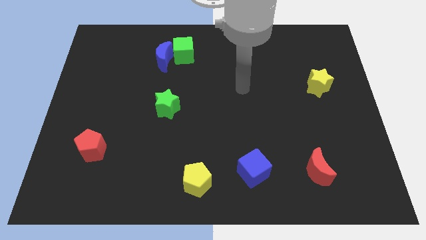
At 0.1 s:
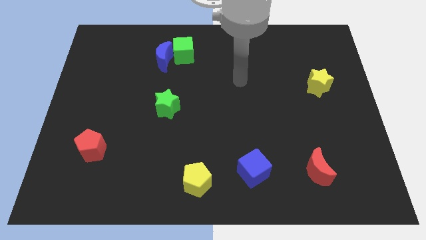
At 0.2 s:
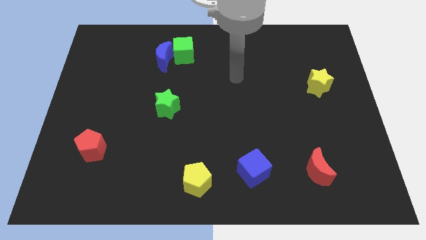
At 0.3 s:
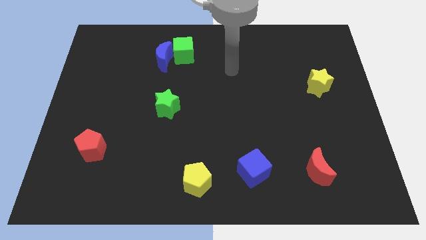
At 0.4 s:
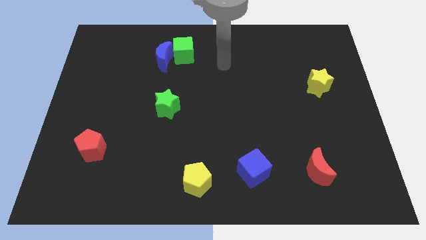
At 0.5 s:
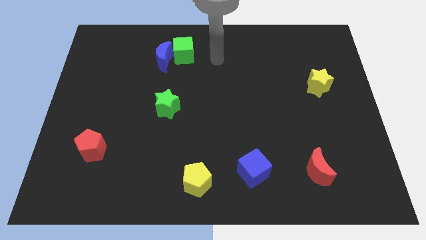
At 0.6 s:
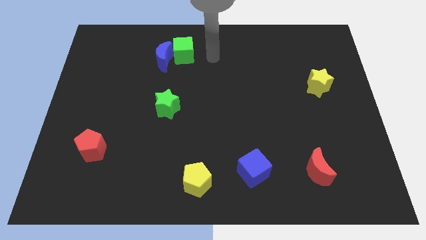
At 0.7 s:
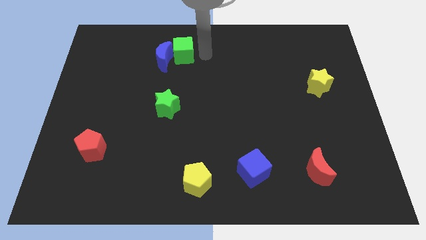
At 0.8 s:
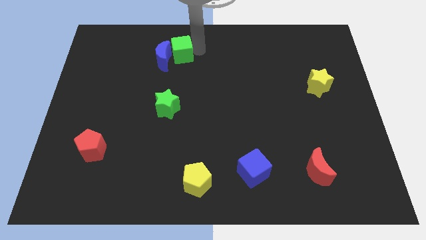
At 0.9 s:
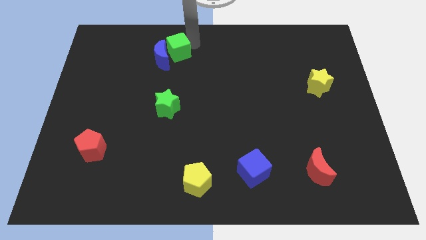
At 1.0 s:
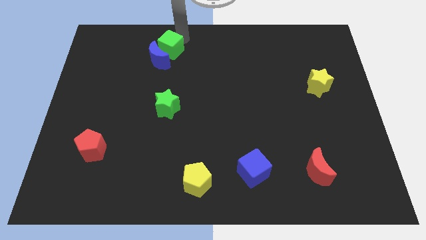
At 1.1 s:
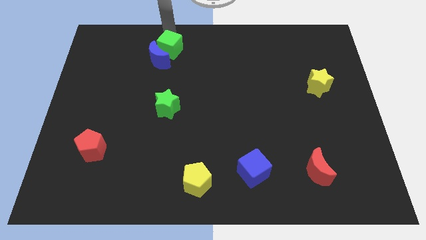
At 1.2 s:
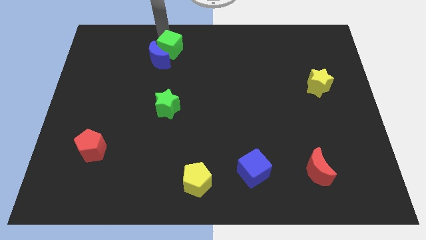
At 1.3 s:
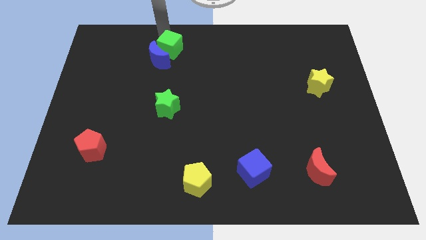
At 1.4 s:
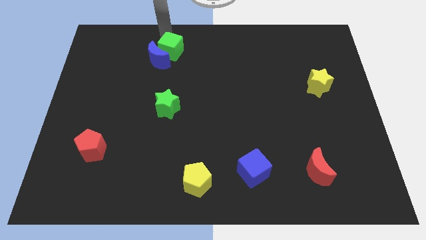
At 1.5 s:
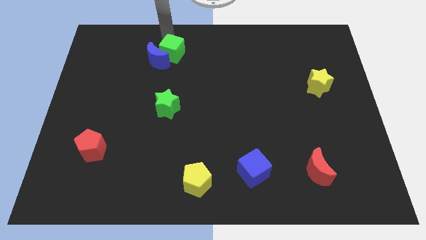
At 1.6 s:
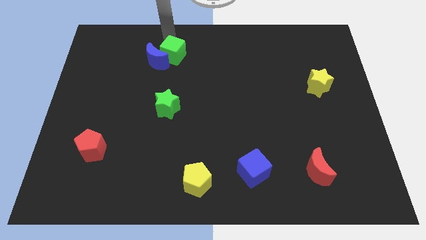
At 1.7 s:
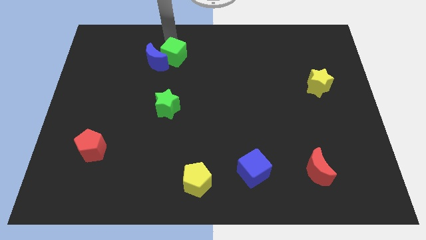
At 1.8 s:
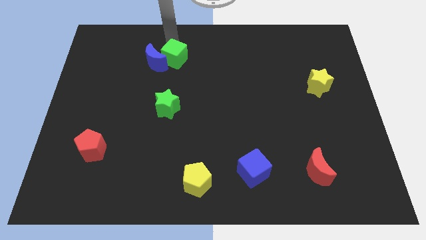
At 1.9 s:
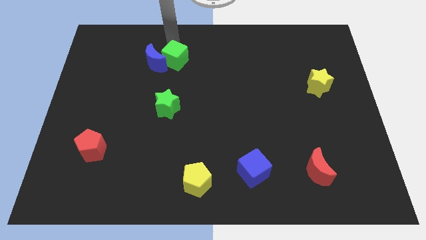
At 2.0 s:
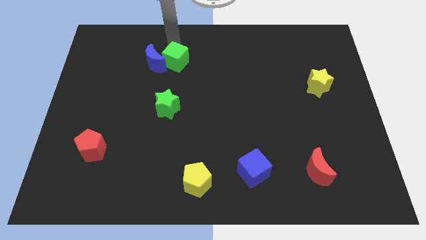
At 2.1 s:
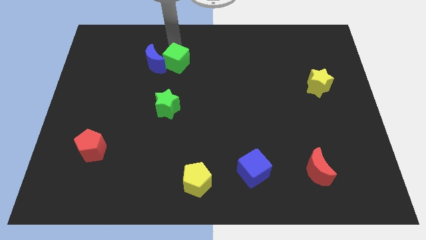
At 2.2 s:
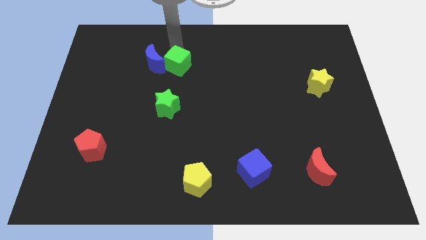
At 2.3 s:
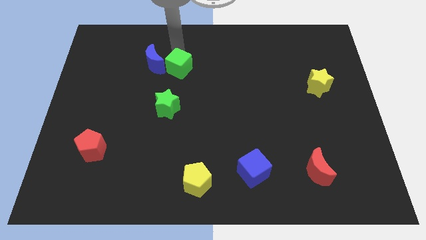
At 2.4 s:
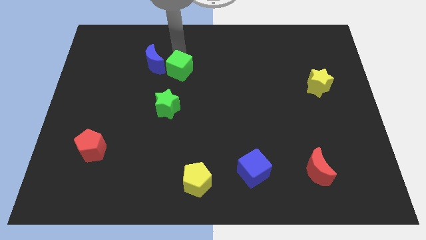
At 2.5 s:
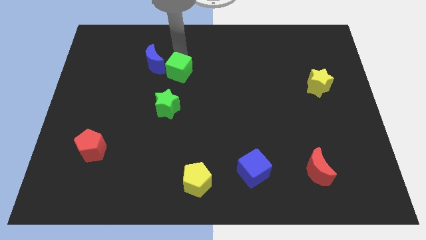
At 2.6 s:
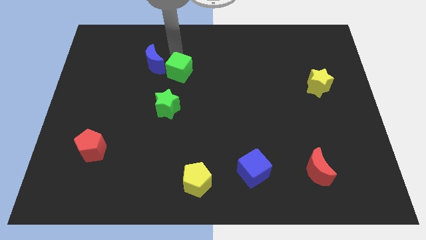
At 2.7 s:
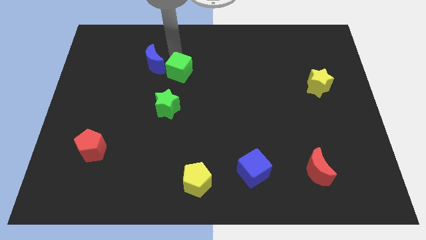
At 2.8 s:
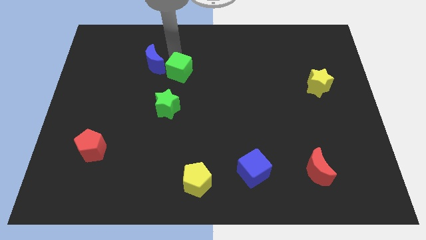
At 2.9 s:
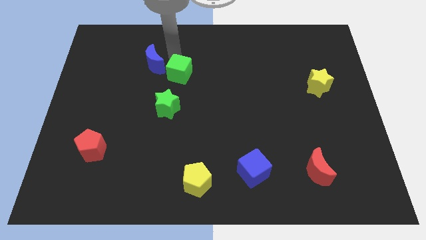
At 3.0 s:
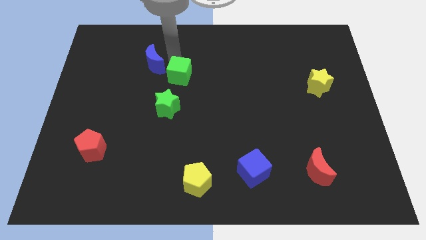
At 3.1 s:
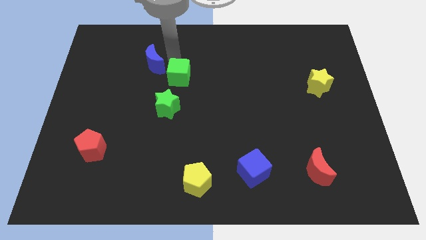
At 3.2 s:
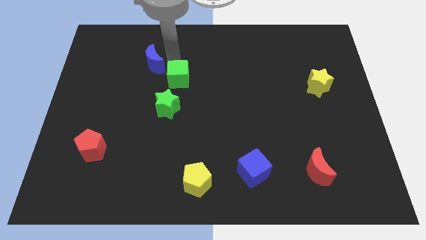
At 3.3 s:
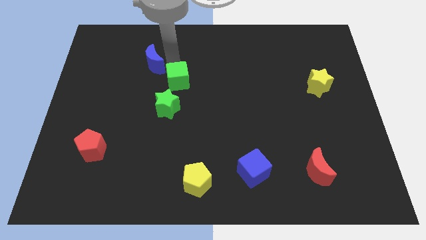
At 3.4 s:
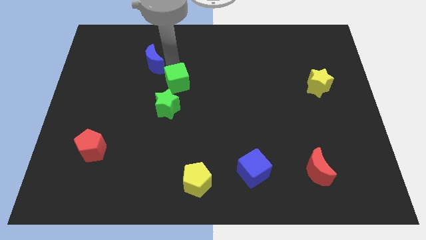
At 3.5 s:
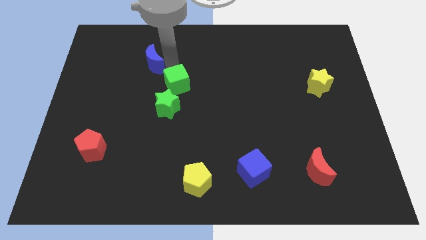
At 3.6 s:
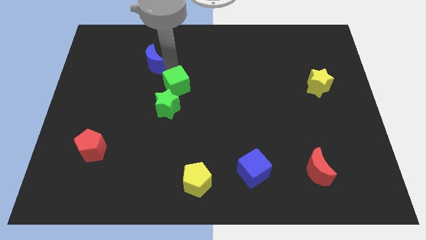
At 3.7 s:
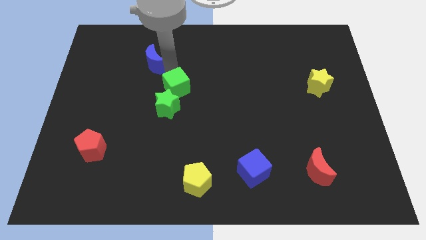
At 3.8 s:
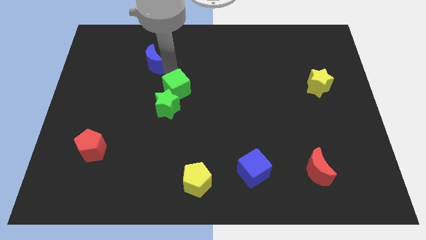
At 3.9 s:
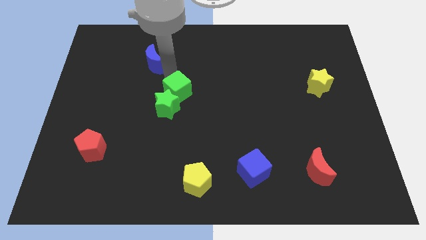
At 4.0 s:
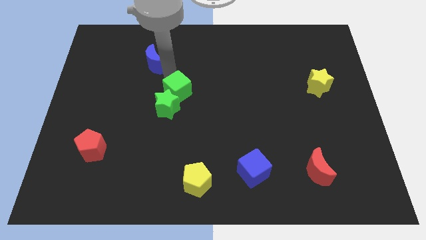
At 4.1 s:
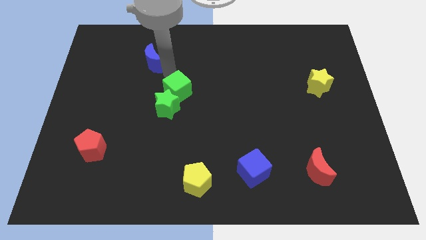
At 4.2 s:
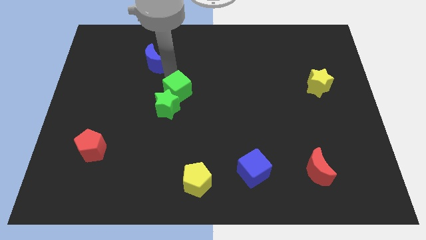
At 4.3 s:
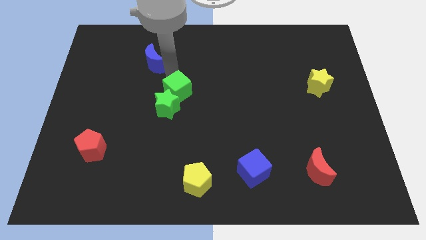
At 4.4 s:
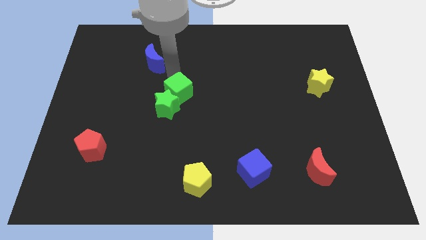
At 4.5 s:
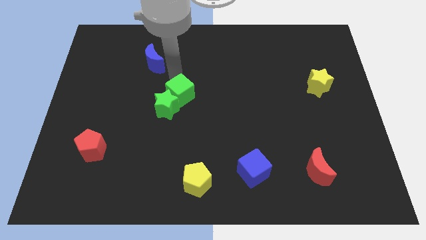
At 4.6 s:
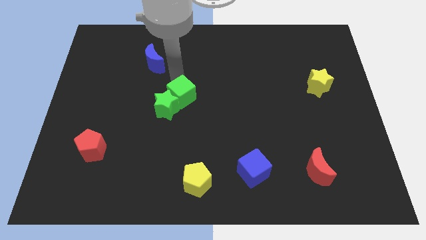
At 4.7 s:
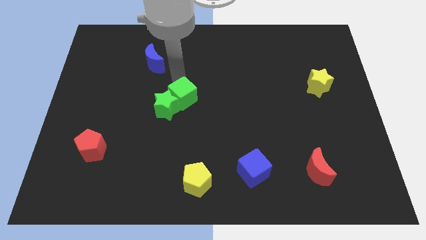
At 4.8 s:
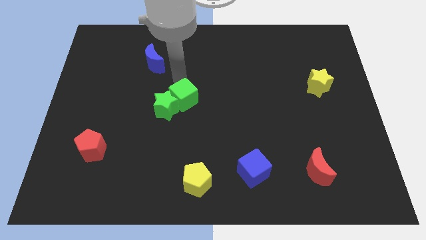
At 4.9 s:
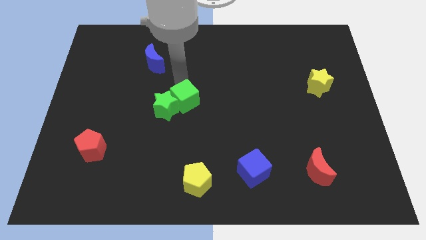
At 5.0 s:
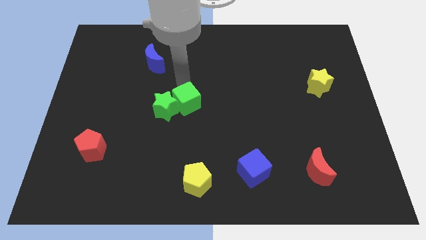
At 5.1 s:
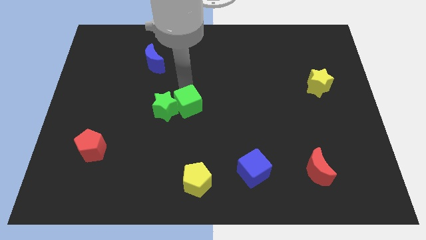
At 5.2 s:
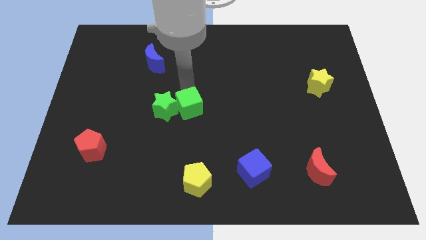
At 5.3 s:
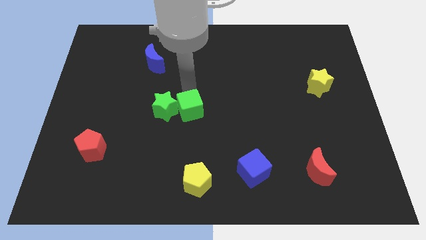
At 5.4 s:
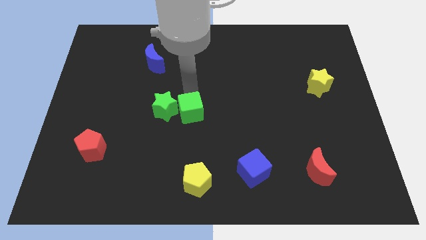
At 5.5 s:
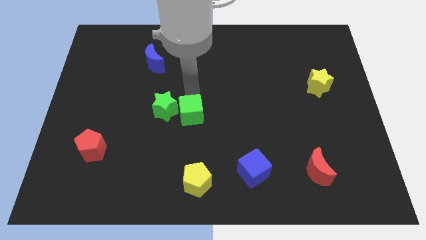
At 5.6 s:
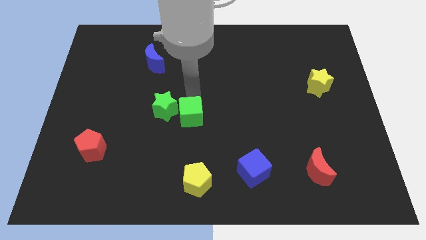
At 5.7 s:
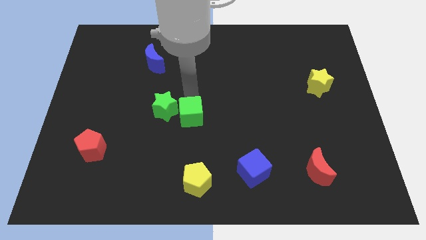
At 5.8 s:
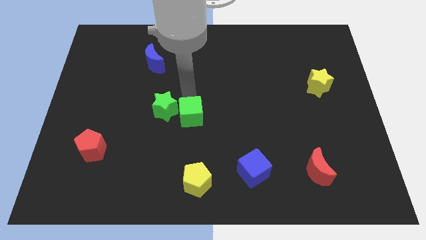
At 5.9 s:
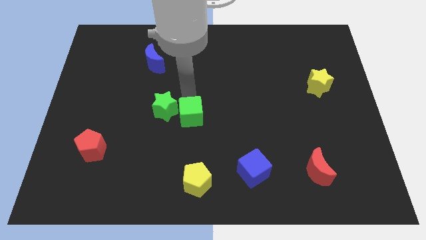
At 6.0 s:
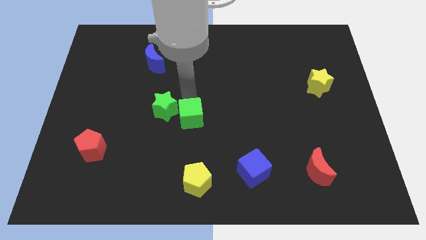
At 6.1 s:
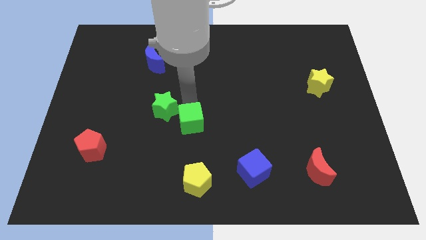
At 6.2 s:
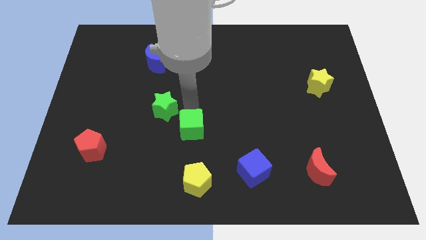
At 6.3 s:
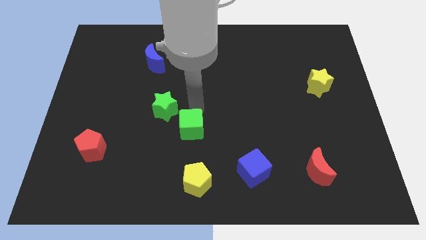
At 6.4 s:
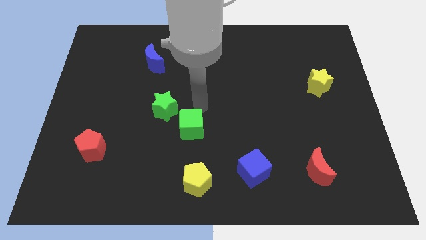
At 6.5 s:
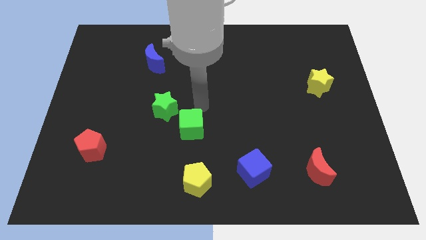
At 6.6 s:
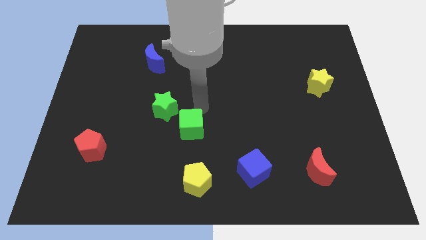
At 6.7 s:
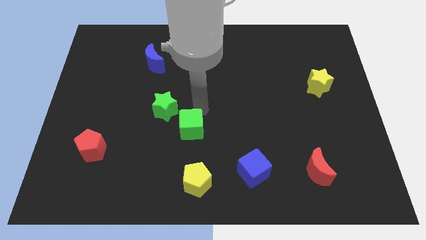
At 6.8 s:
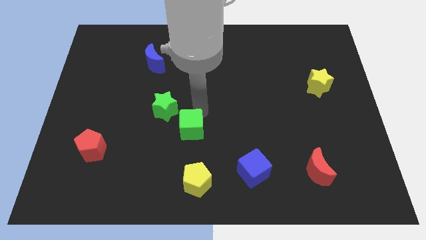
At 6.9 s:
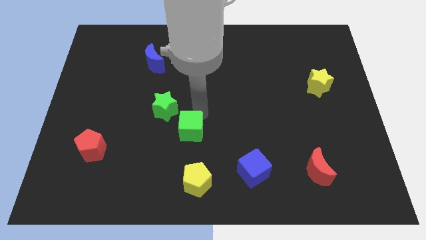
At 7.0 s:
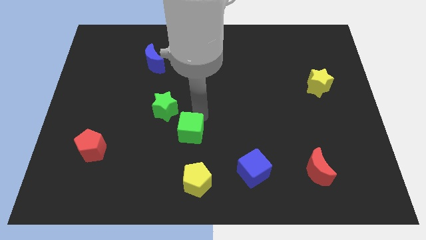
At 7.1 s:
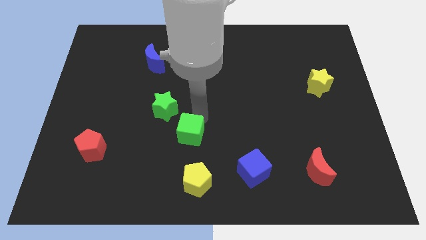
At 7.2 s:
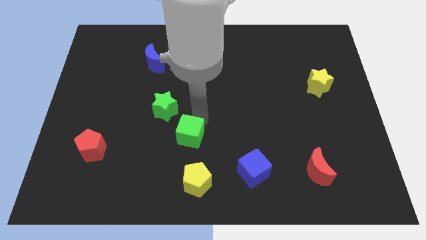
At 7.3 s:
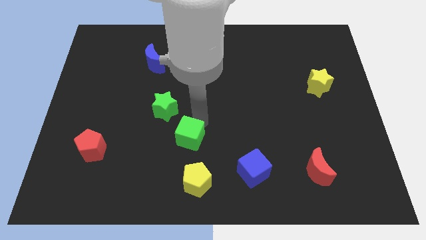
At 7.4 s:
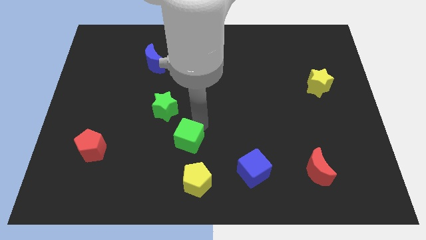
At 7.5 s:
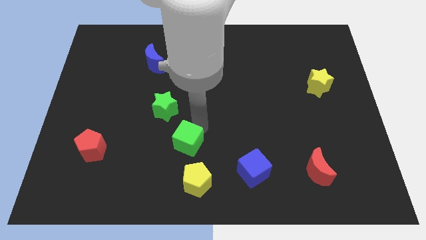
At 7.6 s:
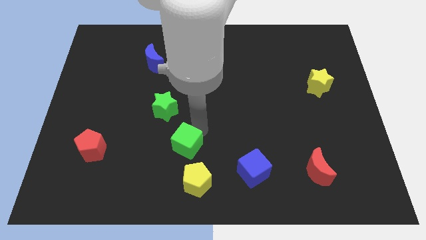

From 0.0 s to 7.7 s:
slide the green cube to the top left side of the yellow pentagon
